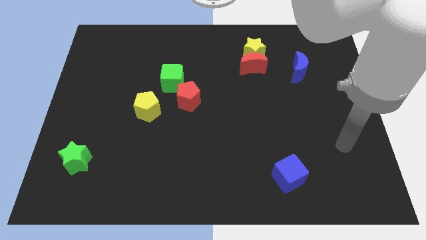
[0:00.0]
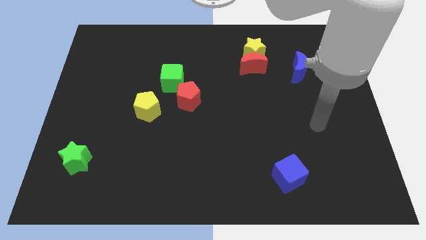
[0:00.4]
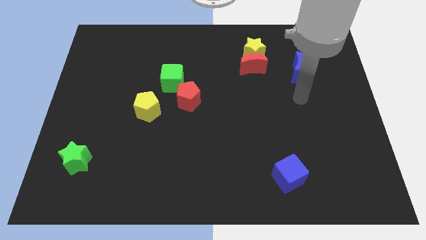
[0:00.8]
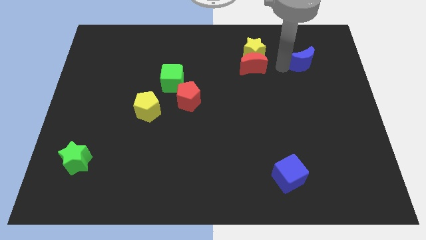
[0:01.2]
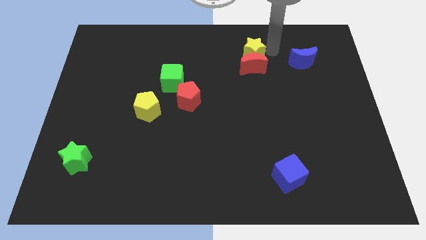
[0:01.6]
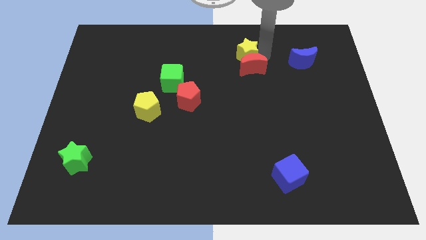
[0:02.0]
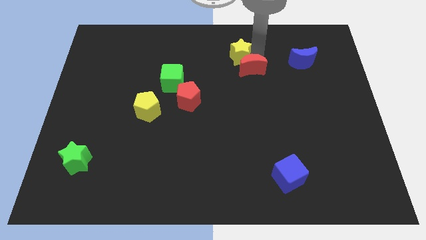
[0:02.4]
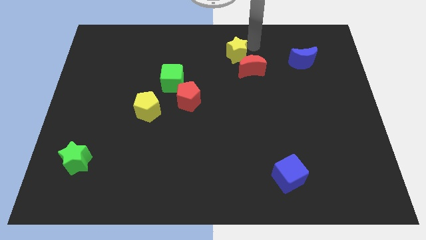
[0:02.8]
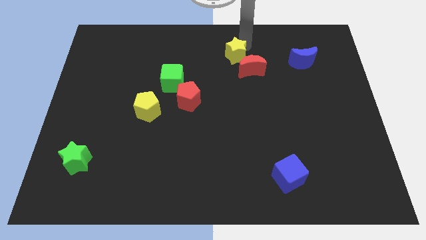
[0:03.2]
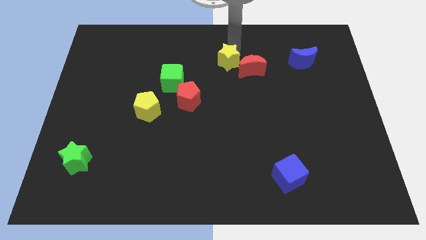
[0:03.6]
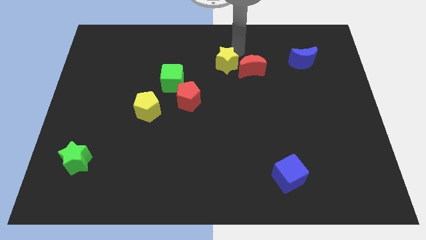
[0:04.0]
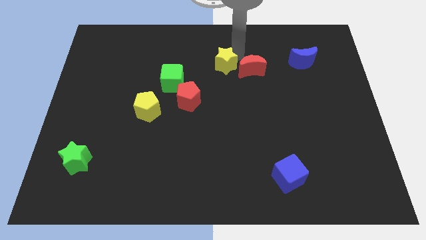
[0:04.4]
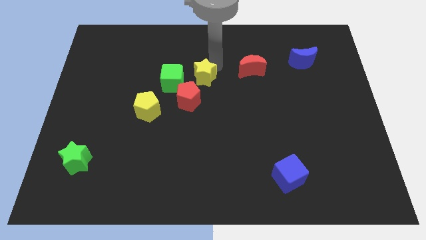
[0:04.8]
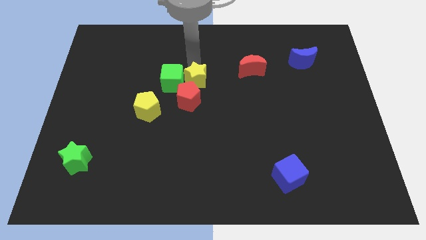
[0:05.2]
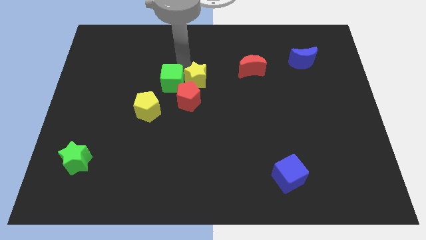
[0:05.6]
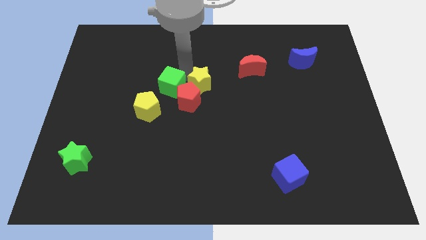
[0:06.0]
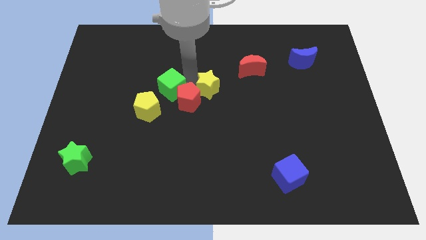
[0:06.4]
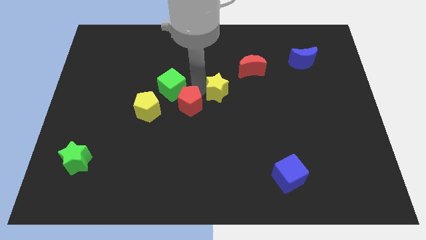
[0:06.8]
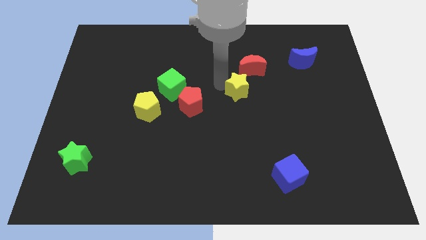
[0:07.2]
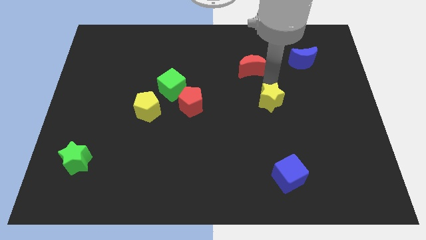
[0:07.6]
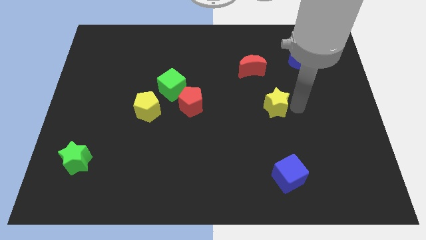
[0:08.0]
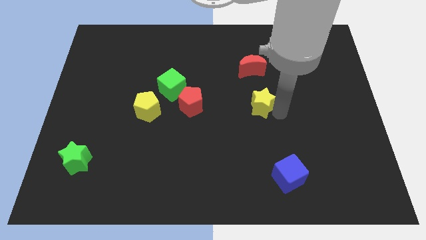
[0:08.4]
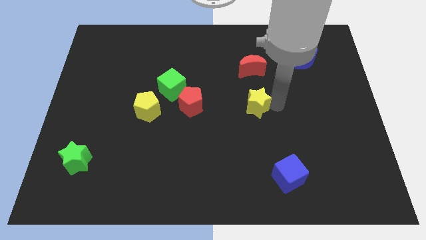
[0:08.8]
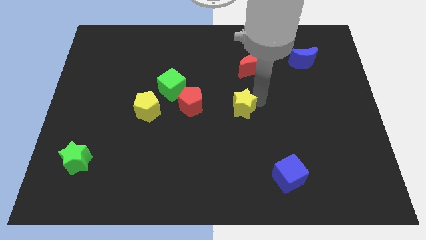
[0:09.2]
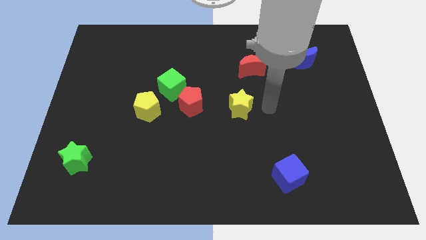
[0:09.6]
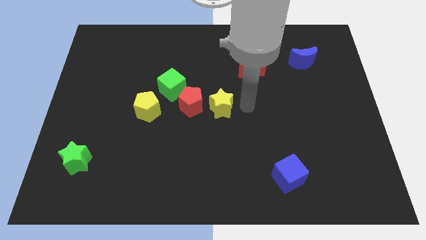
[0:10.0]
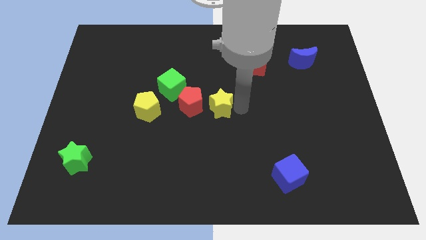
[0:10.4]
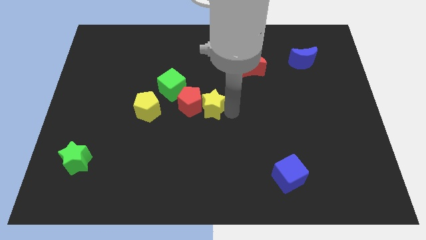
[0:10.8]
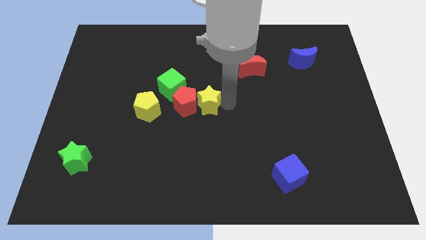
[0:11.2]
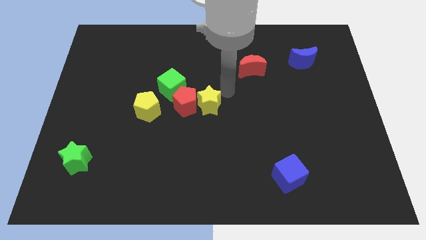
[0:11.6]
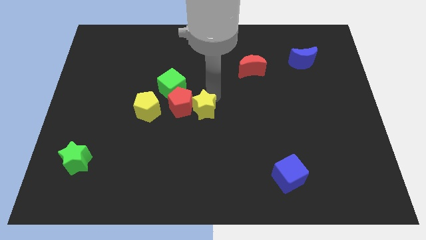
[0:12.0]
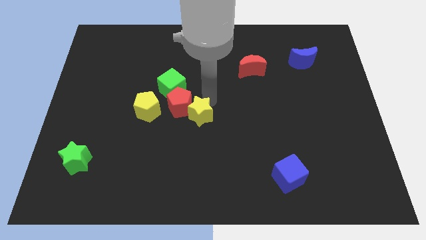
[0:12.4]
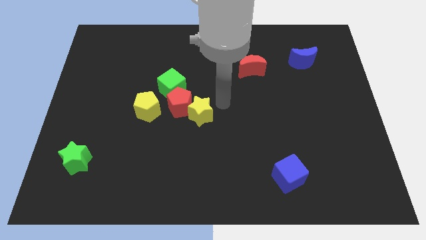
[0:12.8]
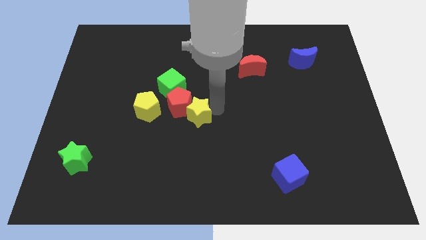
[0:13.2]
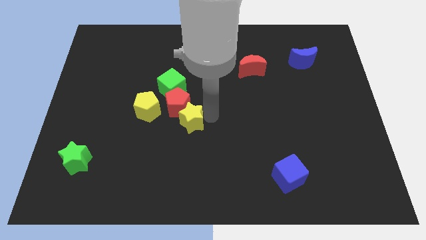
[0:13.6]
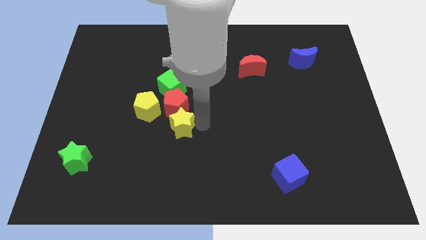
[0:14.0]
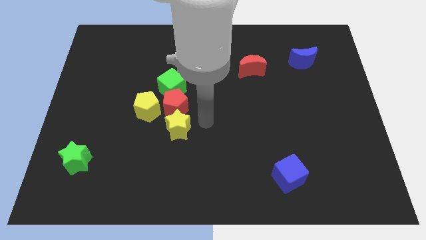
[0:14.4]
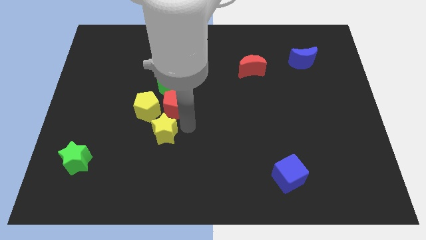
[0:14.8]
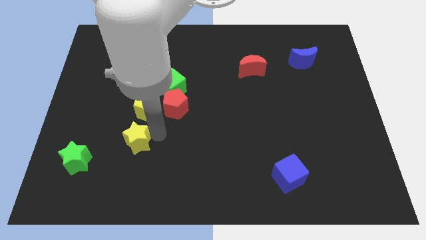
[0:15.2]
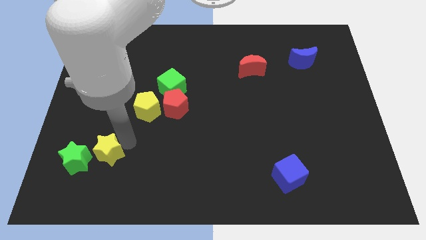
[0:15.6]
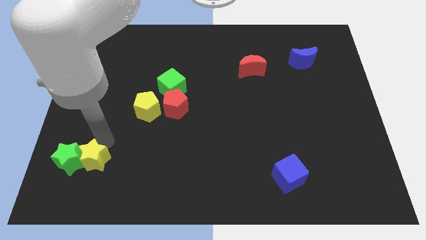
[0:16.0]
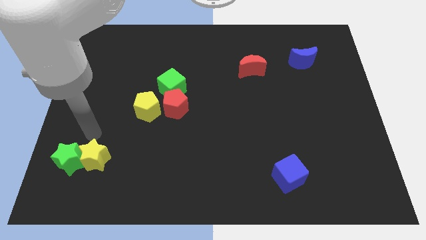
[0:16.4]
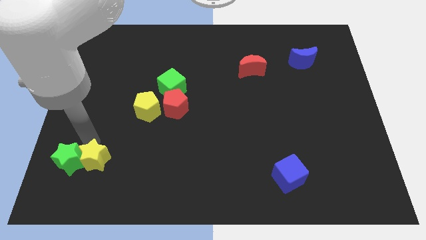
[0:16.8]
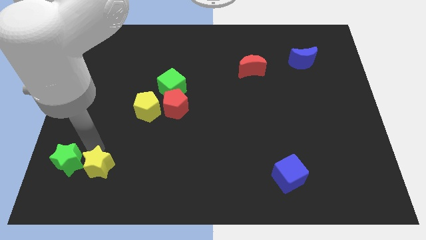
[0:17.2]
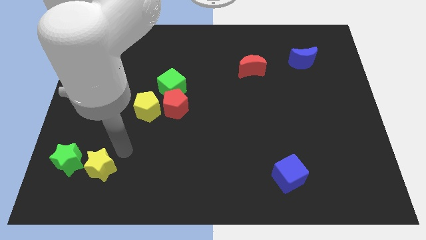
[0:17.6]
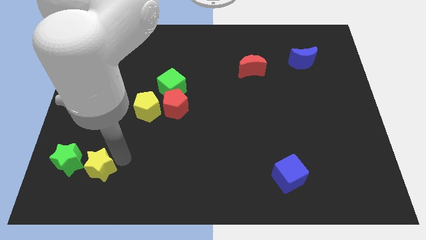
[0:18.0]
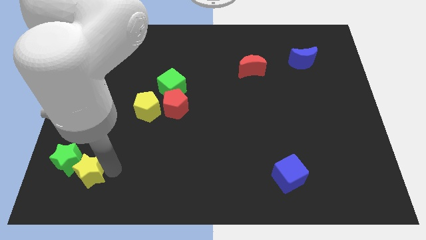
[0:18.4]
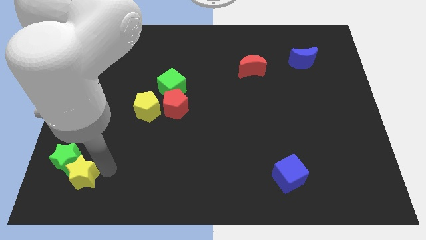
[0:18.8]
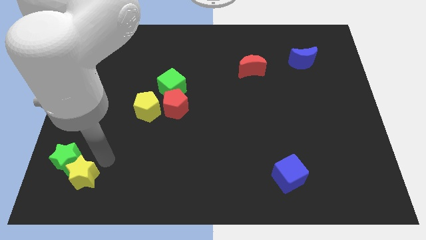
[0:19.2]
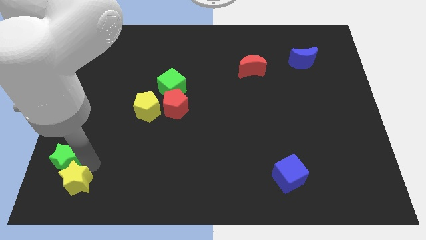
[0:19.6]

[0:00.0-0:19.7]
move the yellow star to the lower left corner

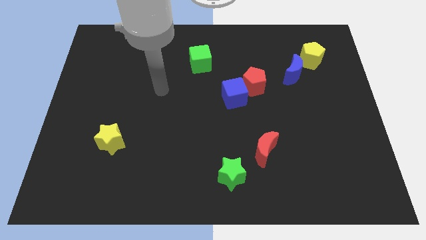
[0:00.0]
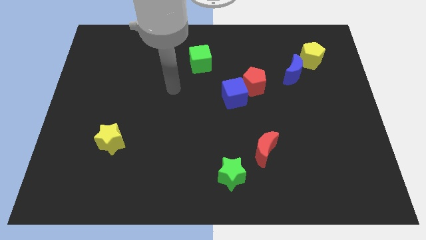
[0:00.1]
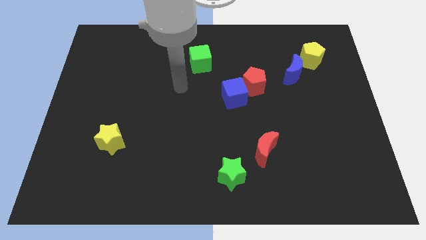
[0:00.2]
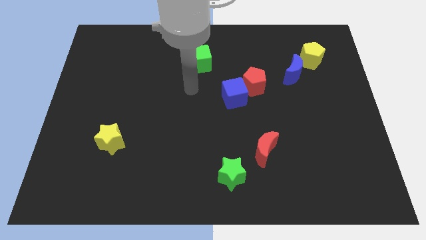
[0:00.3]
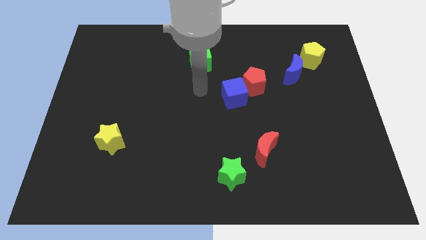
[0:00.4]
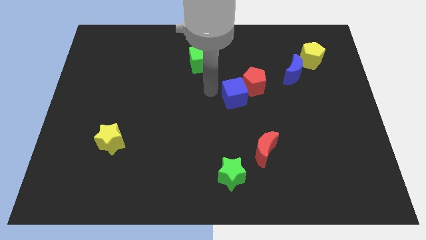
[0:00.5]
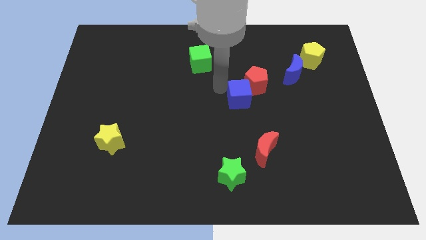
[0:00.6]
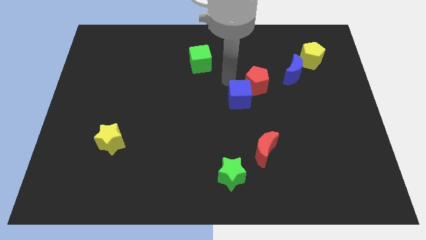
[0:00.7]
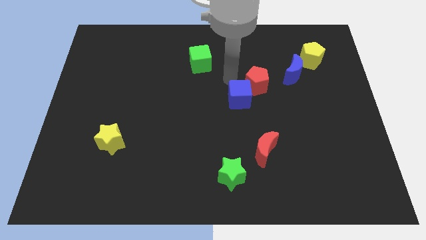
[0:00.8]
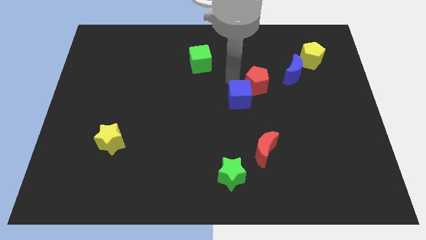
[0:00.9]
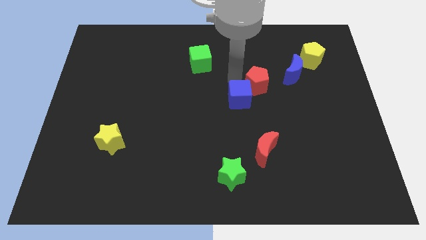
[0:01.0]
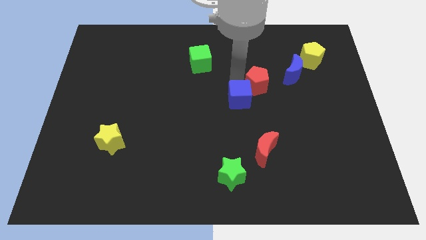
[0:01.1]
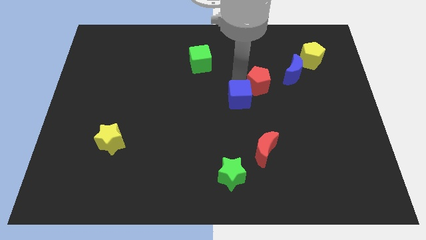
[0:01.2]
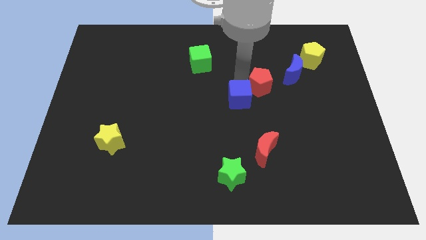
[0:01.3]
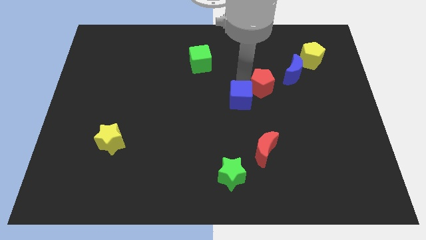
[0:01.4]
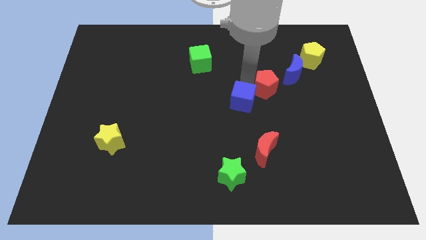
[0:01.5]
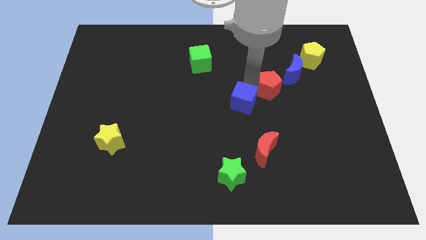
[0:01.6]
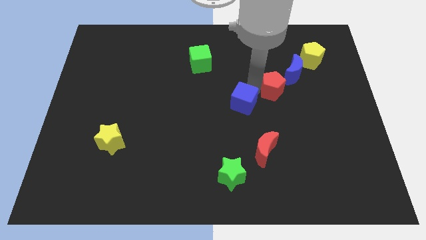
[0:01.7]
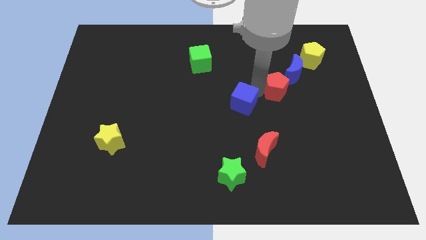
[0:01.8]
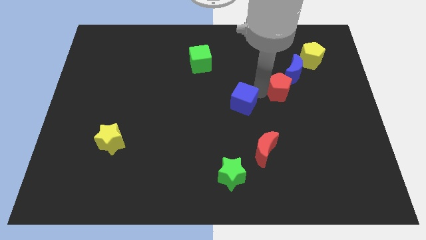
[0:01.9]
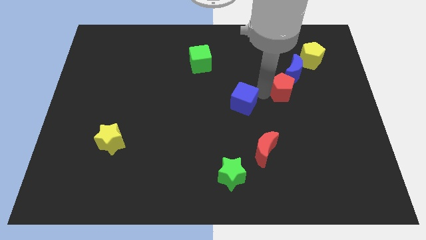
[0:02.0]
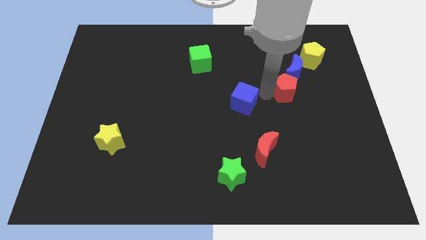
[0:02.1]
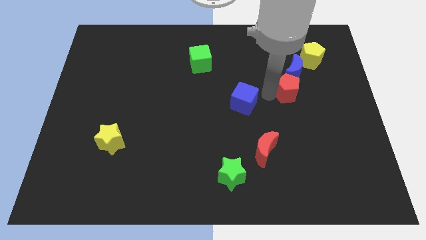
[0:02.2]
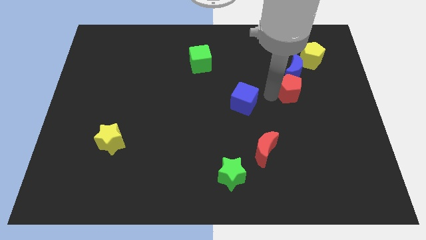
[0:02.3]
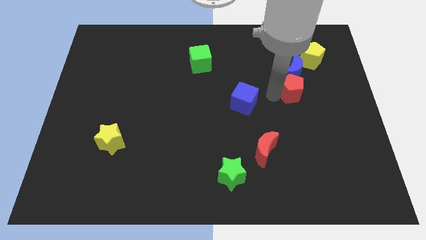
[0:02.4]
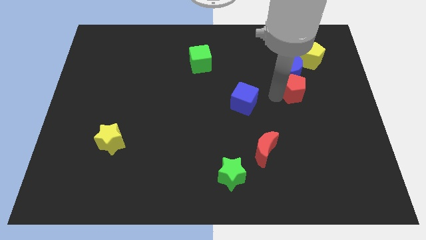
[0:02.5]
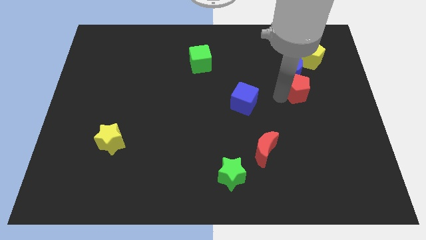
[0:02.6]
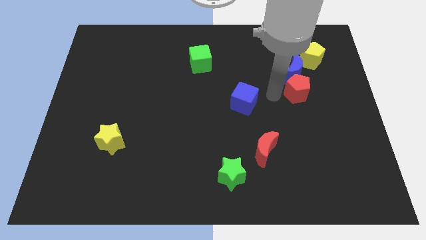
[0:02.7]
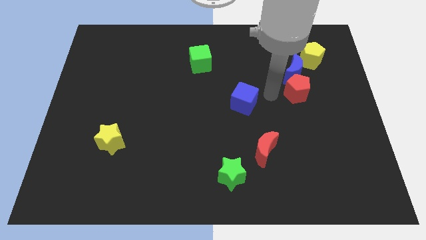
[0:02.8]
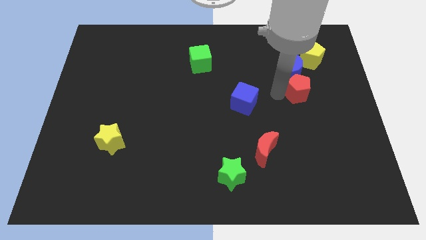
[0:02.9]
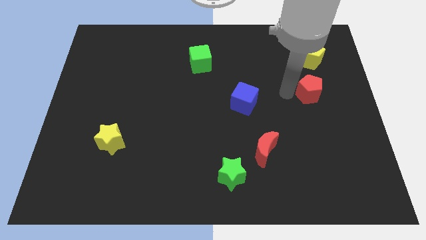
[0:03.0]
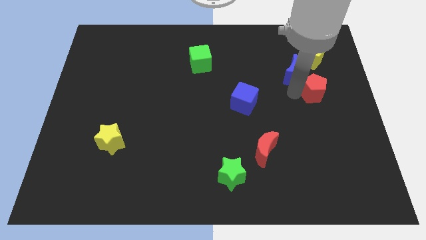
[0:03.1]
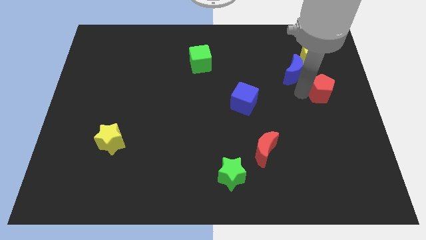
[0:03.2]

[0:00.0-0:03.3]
move the red pentagon to the right side
